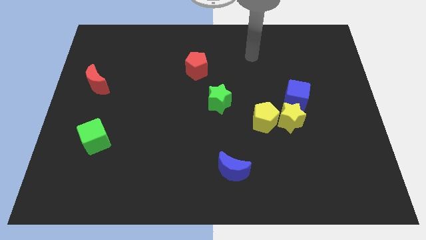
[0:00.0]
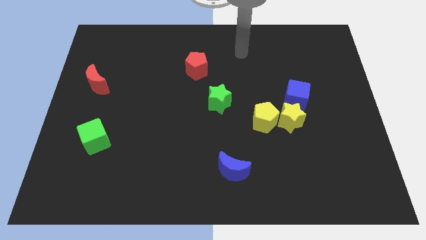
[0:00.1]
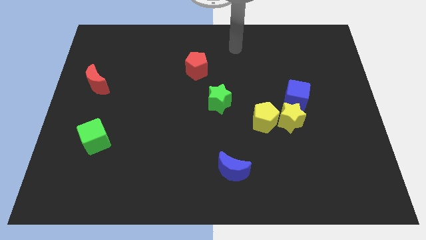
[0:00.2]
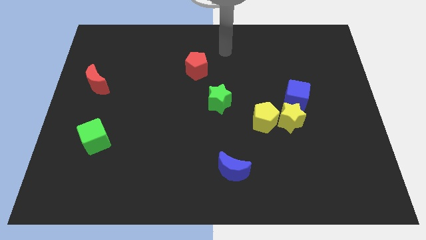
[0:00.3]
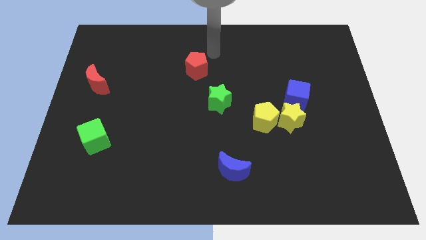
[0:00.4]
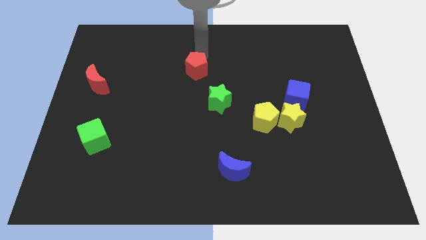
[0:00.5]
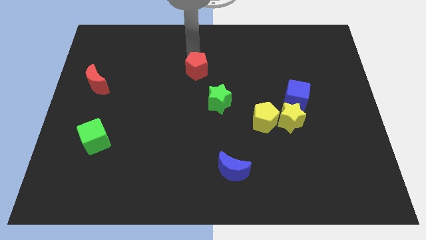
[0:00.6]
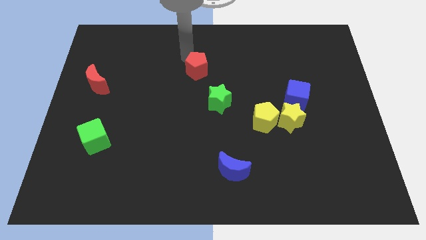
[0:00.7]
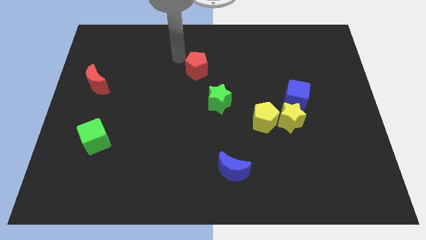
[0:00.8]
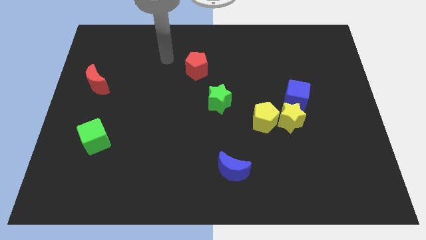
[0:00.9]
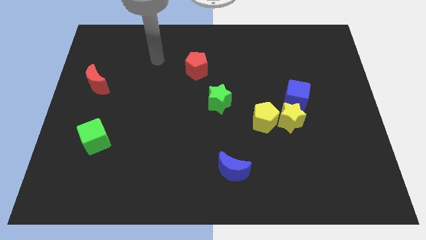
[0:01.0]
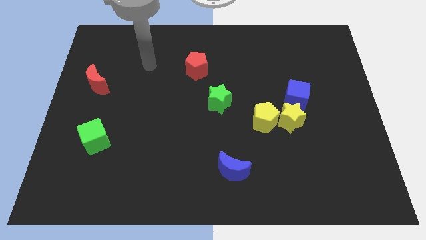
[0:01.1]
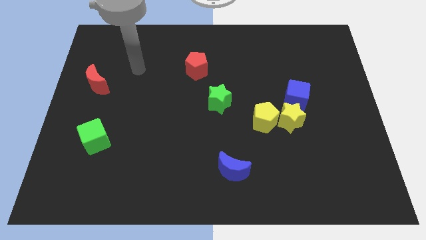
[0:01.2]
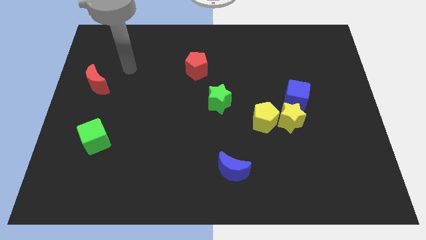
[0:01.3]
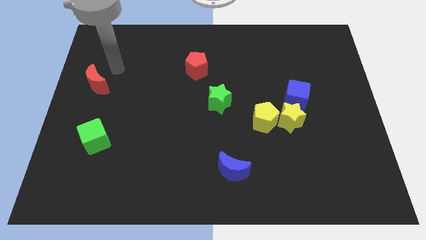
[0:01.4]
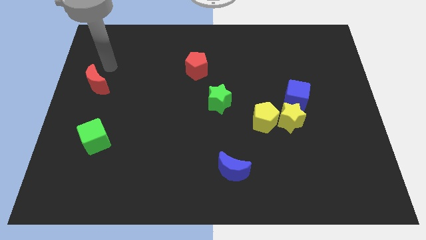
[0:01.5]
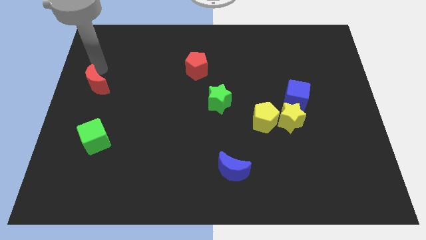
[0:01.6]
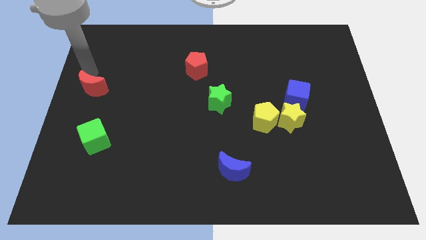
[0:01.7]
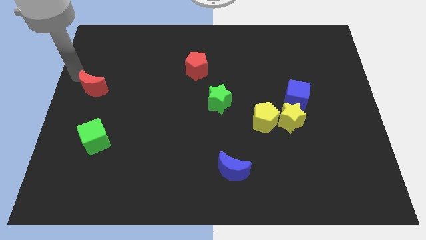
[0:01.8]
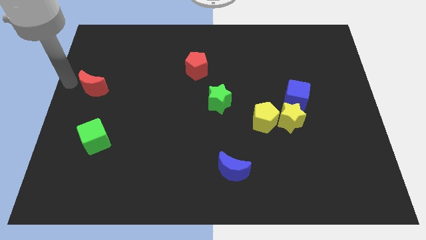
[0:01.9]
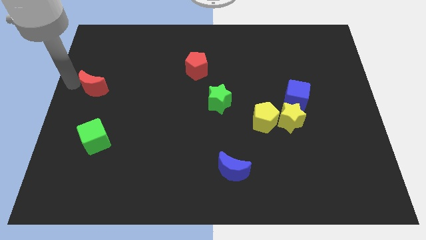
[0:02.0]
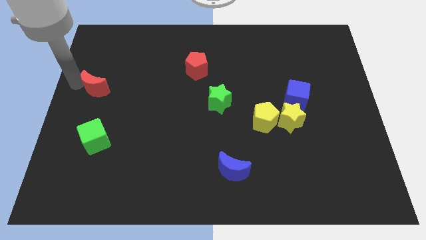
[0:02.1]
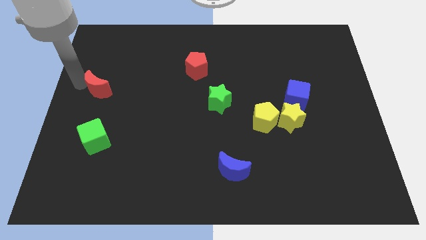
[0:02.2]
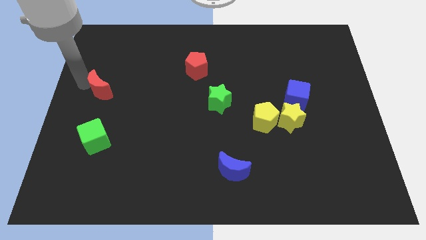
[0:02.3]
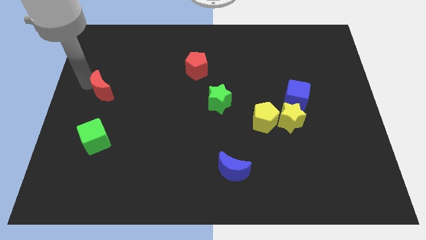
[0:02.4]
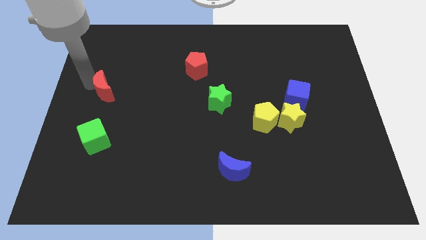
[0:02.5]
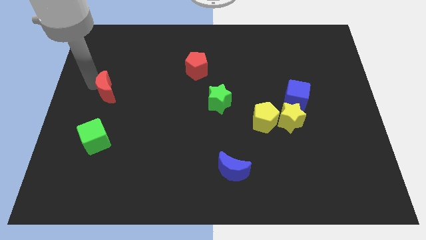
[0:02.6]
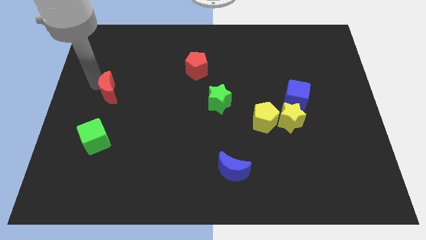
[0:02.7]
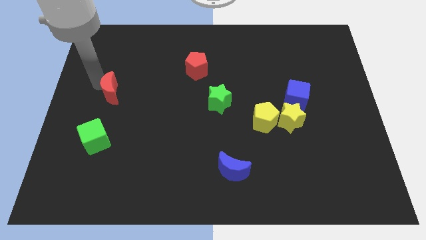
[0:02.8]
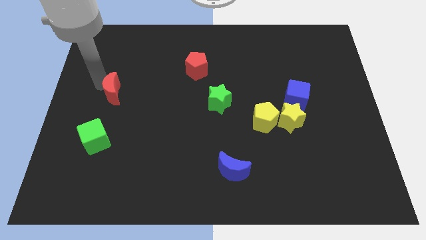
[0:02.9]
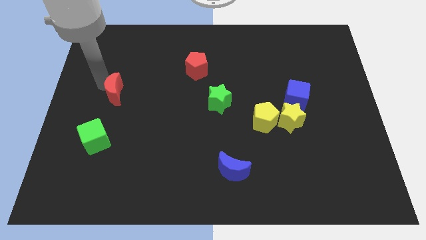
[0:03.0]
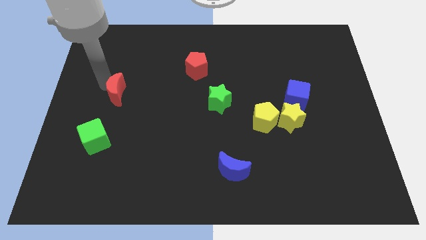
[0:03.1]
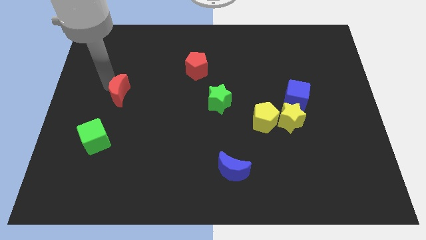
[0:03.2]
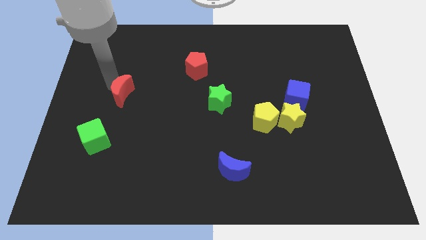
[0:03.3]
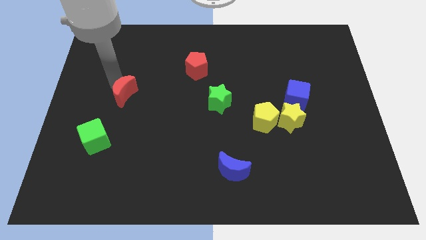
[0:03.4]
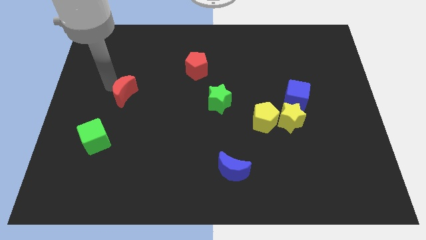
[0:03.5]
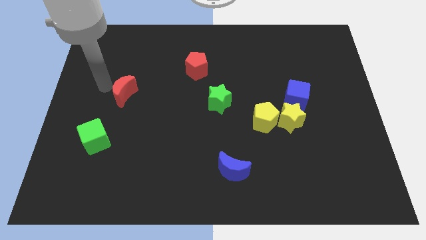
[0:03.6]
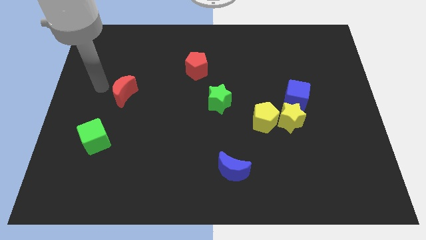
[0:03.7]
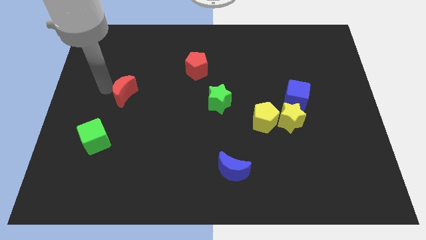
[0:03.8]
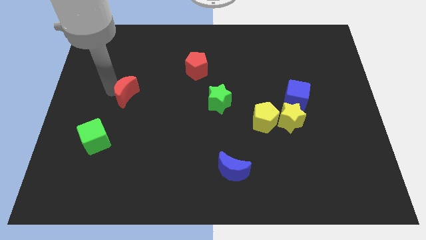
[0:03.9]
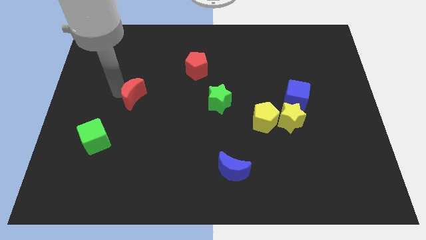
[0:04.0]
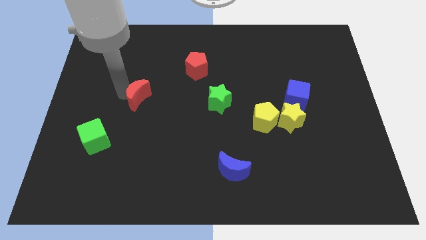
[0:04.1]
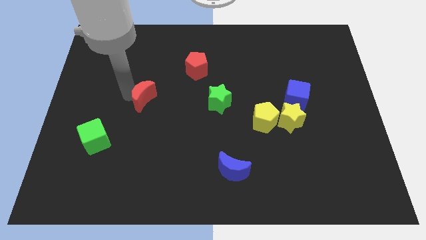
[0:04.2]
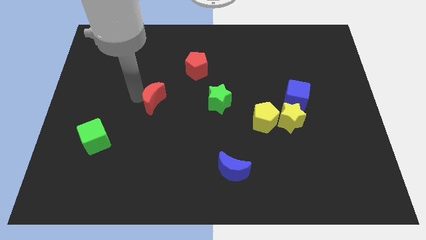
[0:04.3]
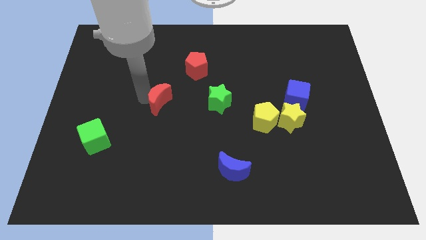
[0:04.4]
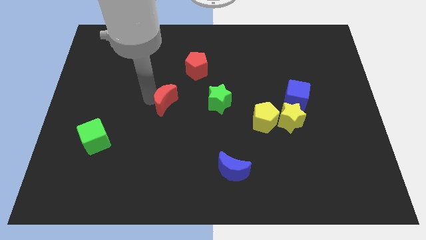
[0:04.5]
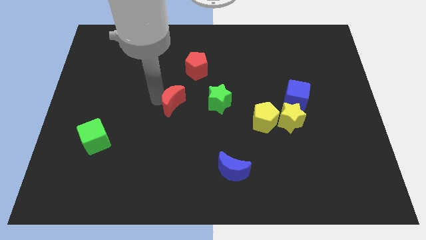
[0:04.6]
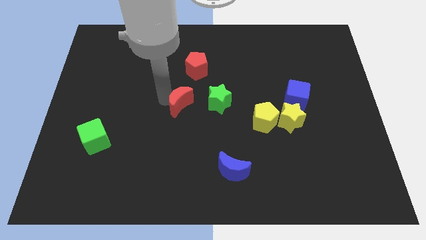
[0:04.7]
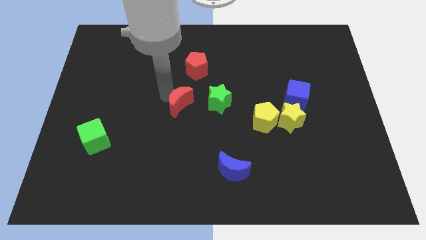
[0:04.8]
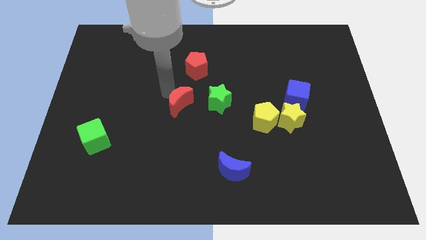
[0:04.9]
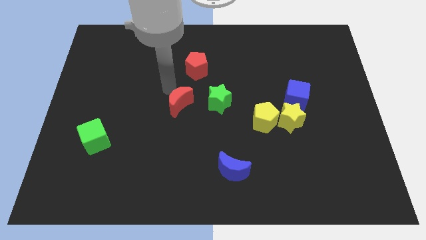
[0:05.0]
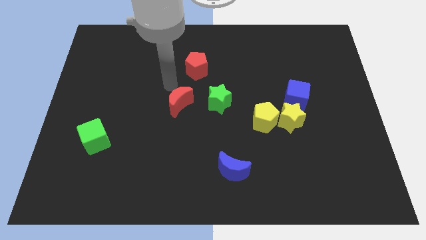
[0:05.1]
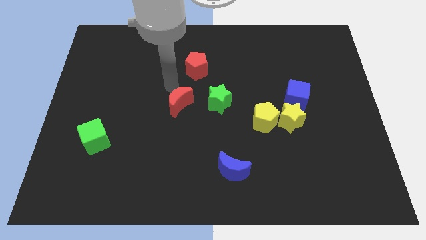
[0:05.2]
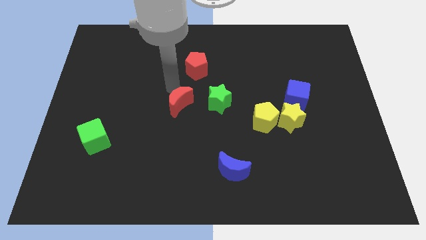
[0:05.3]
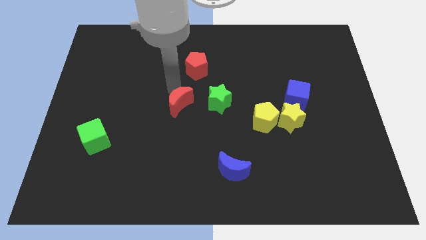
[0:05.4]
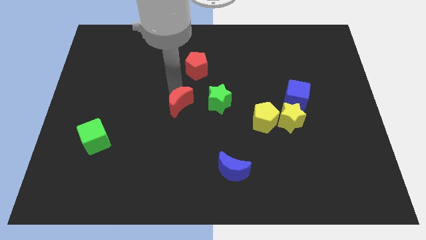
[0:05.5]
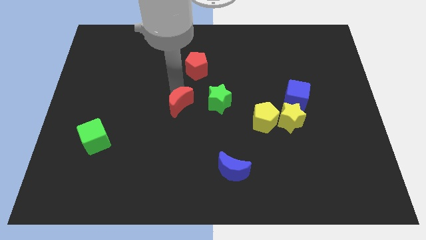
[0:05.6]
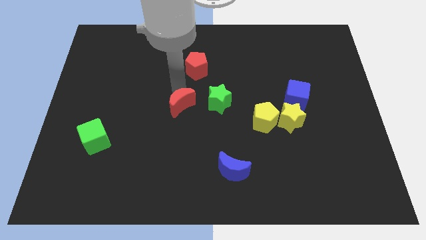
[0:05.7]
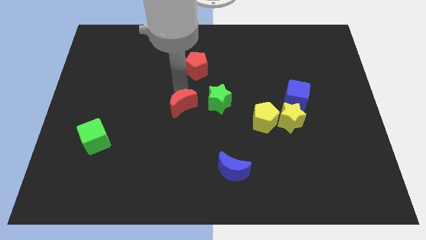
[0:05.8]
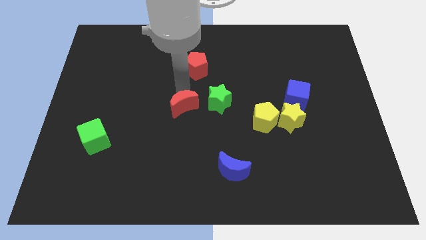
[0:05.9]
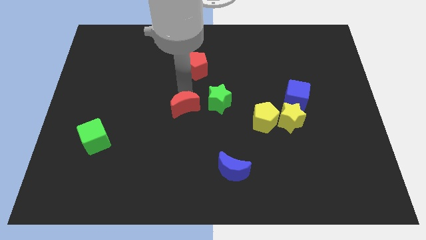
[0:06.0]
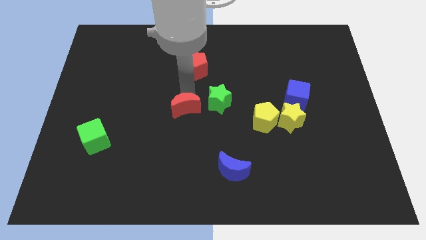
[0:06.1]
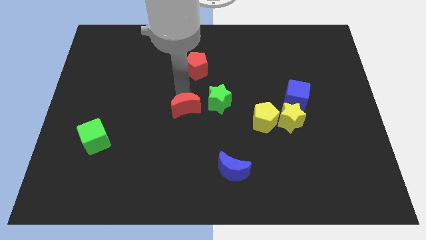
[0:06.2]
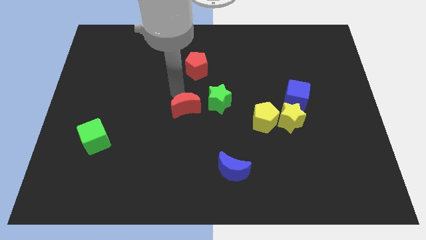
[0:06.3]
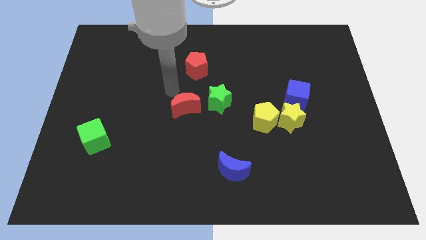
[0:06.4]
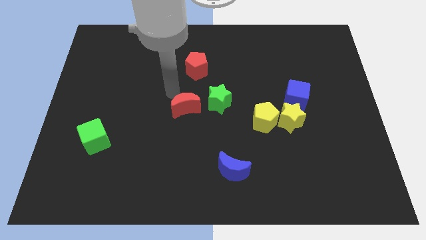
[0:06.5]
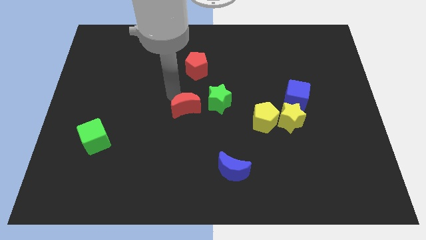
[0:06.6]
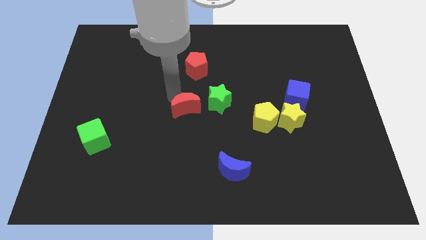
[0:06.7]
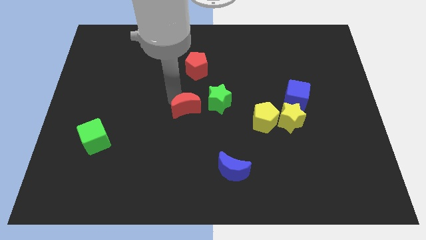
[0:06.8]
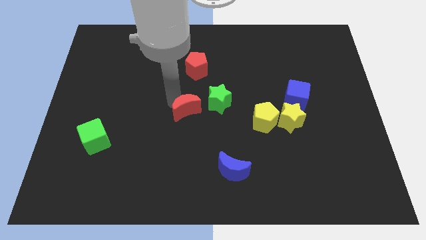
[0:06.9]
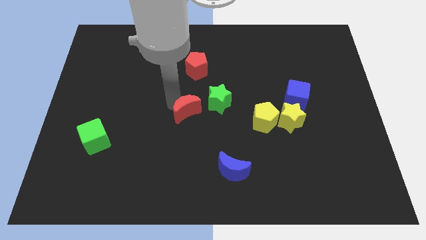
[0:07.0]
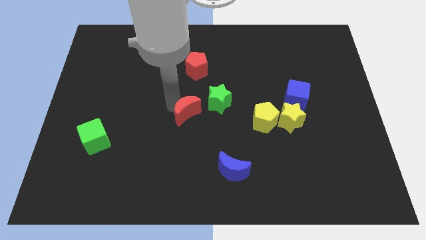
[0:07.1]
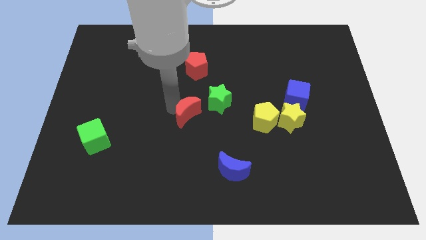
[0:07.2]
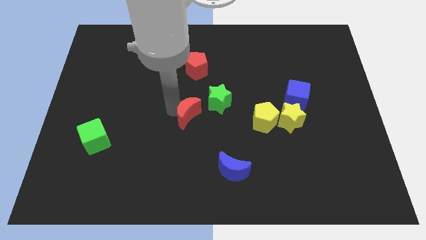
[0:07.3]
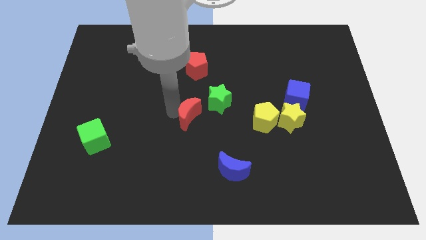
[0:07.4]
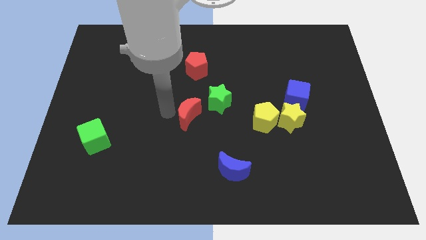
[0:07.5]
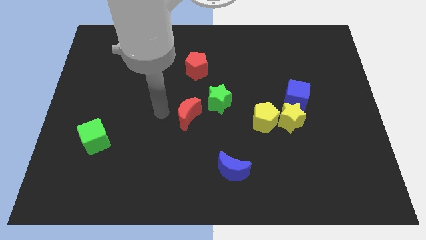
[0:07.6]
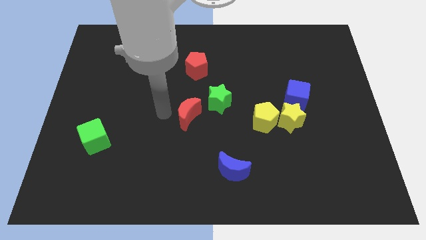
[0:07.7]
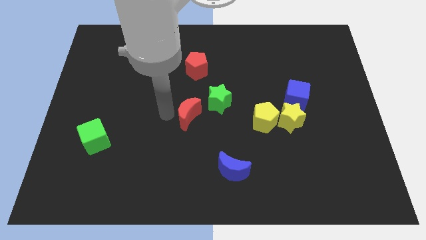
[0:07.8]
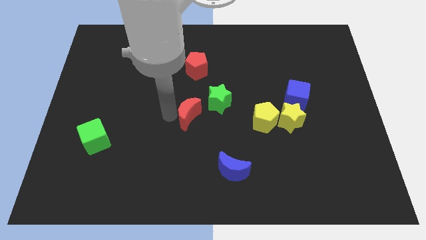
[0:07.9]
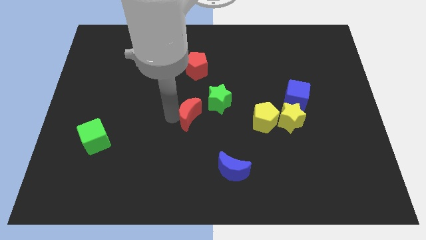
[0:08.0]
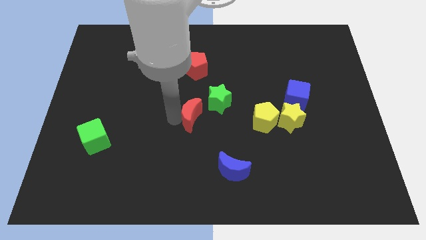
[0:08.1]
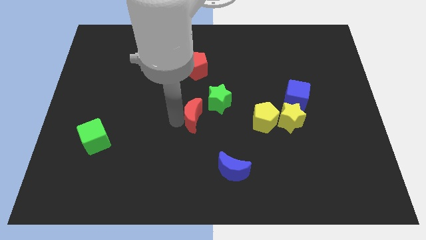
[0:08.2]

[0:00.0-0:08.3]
put the red moon to the left of the yellow pentagon
